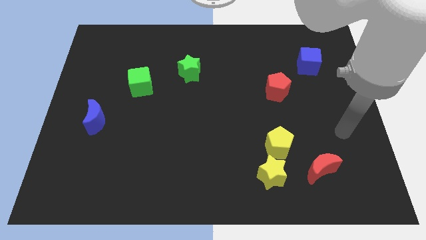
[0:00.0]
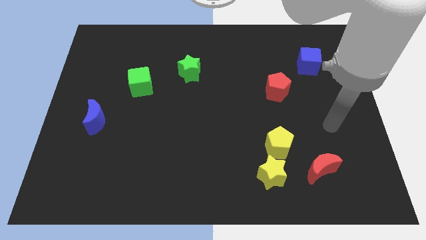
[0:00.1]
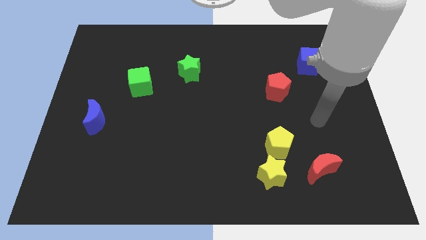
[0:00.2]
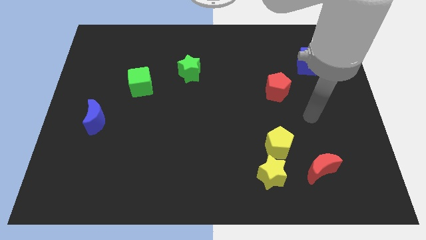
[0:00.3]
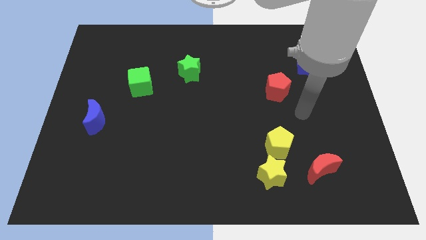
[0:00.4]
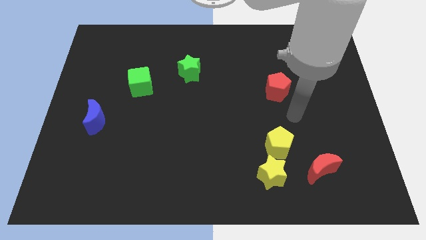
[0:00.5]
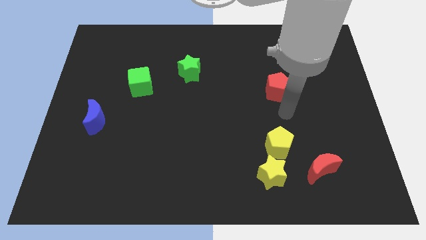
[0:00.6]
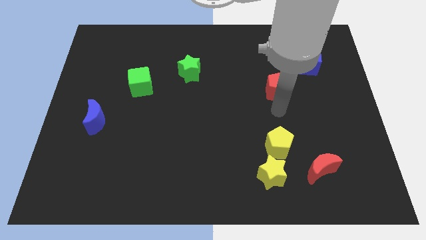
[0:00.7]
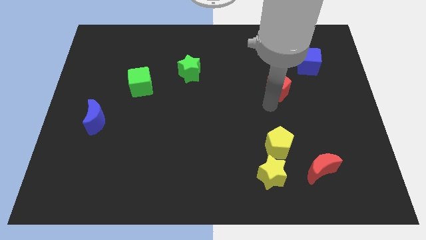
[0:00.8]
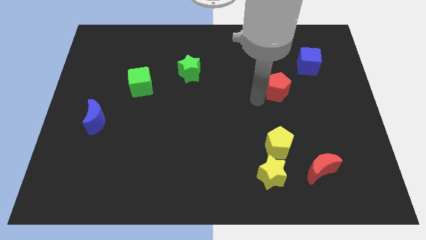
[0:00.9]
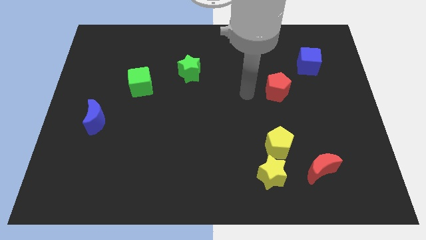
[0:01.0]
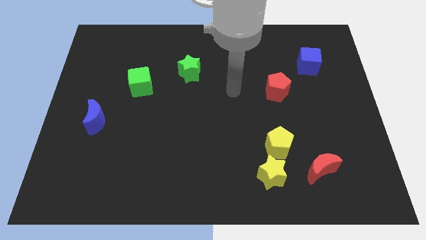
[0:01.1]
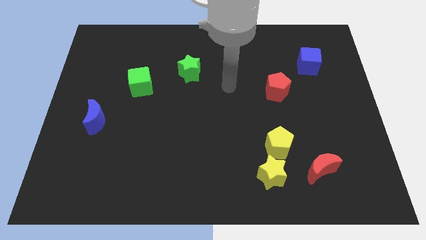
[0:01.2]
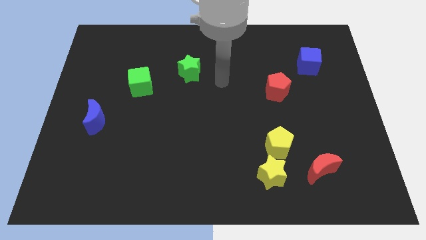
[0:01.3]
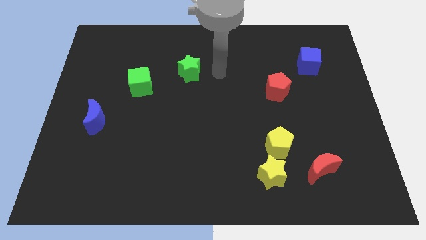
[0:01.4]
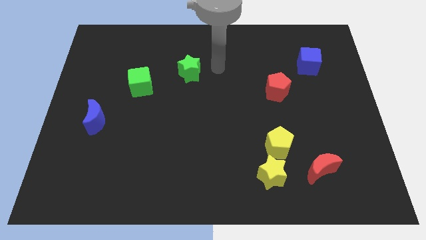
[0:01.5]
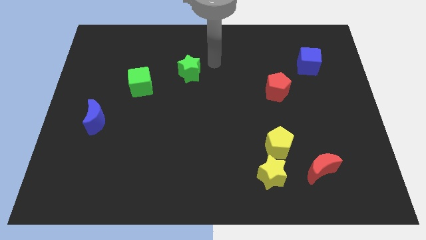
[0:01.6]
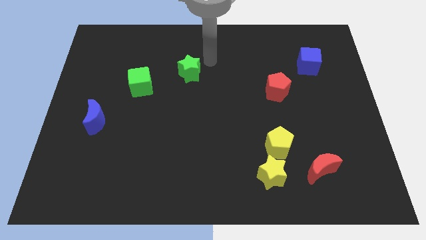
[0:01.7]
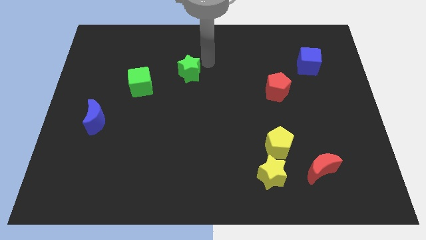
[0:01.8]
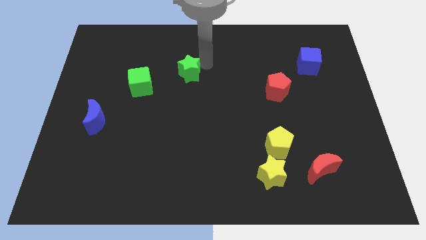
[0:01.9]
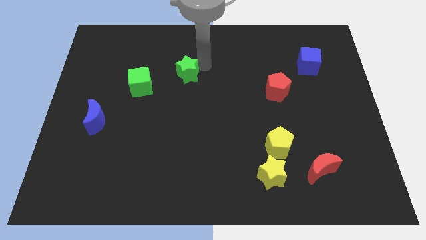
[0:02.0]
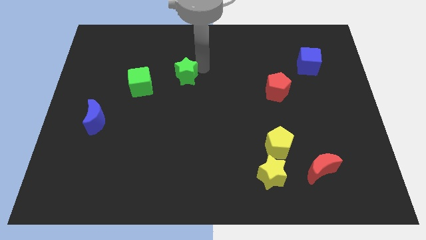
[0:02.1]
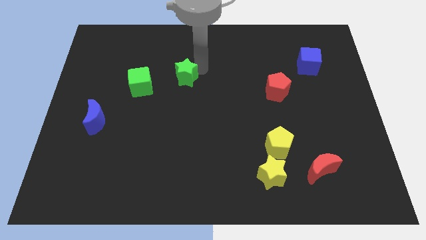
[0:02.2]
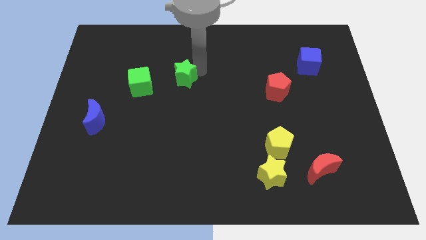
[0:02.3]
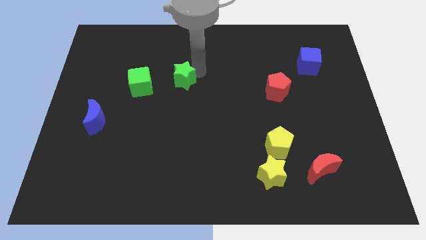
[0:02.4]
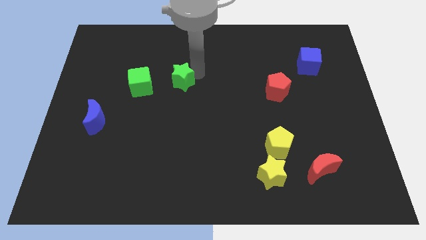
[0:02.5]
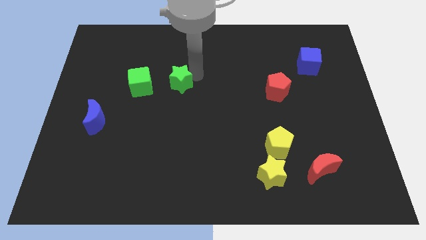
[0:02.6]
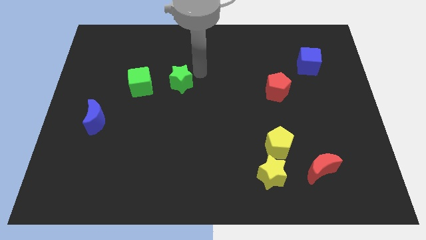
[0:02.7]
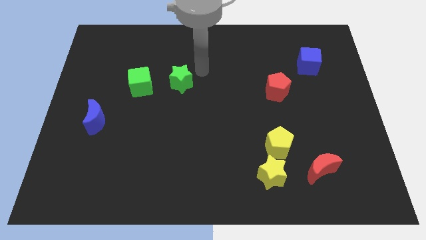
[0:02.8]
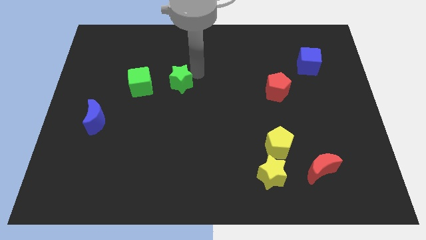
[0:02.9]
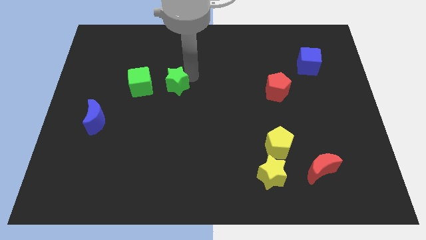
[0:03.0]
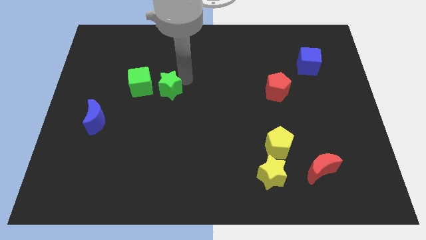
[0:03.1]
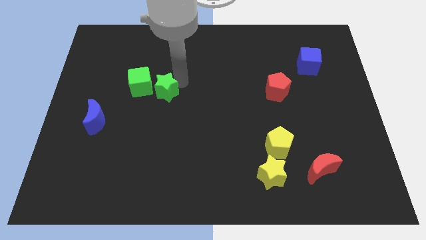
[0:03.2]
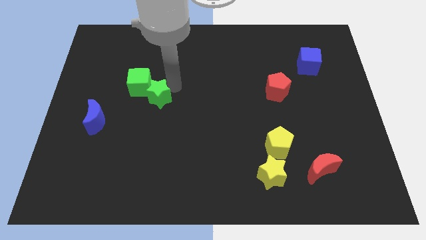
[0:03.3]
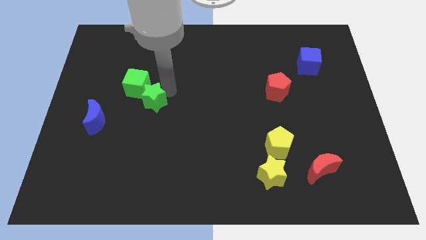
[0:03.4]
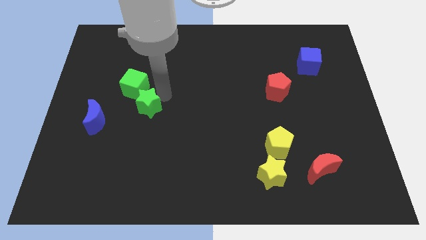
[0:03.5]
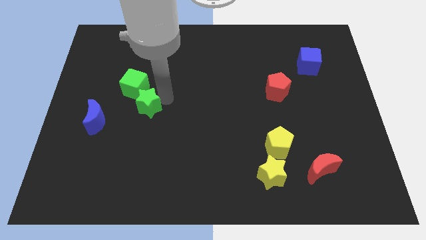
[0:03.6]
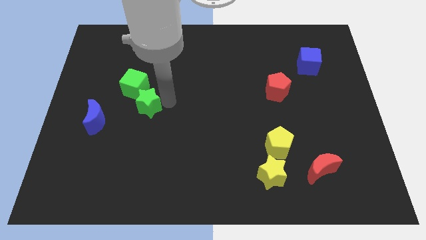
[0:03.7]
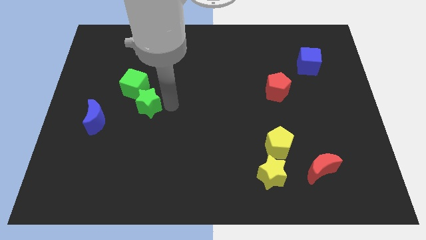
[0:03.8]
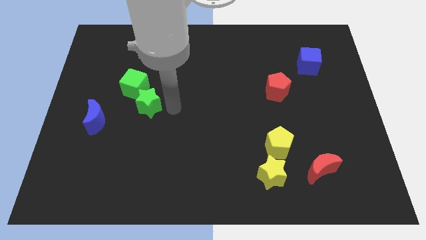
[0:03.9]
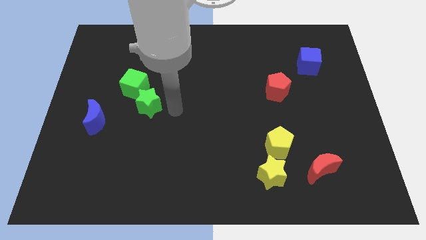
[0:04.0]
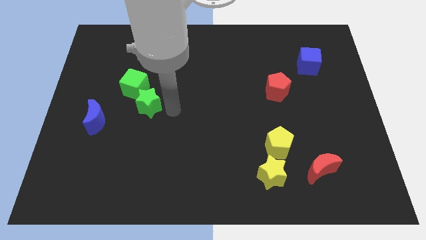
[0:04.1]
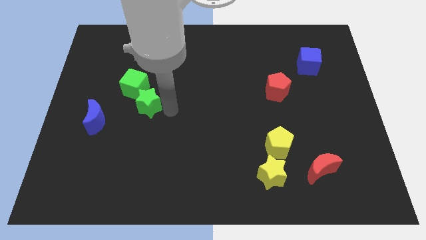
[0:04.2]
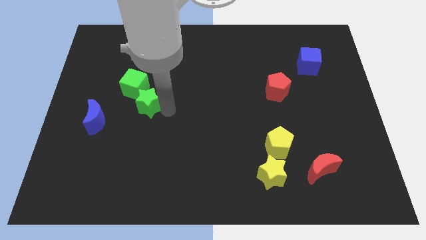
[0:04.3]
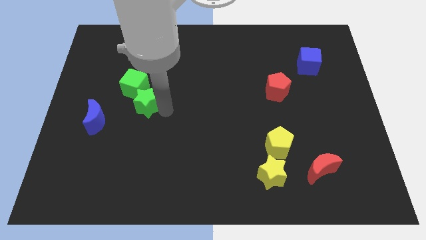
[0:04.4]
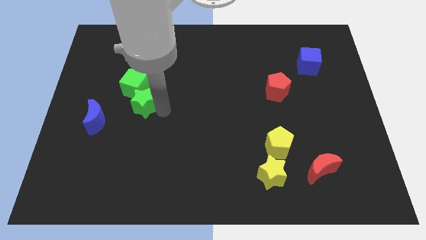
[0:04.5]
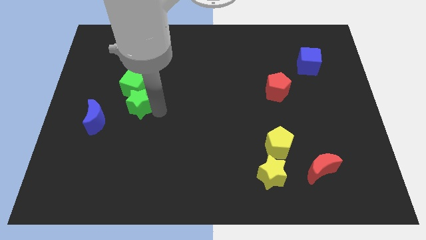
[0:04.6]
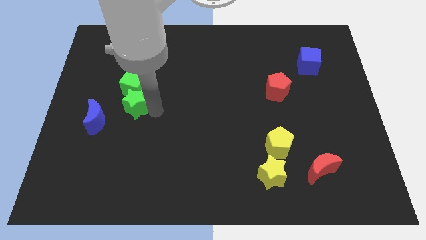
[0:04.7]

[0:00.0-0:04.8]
put the green star to the bottom left side of the green cube

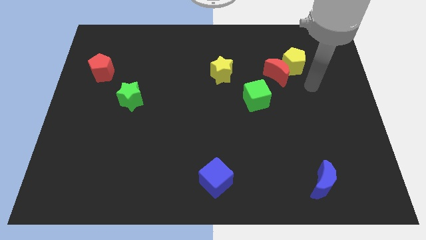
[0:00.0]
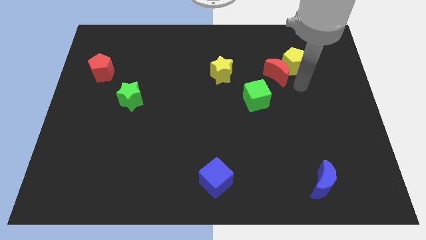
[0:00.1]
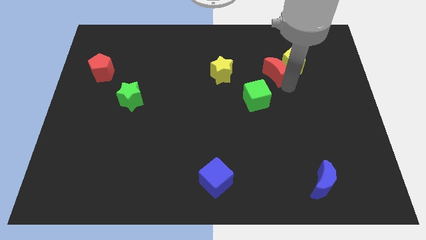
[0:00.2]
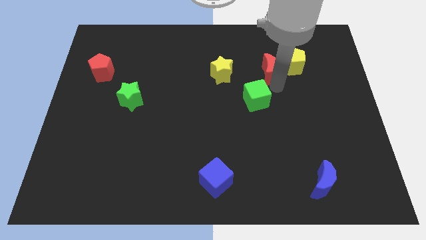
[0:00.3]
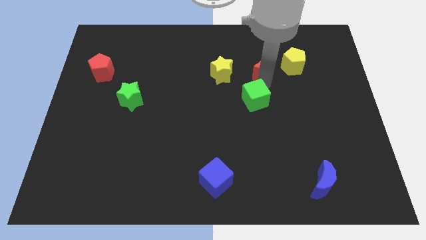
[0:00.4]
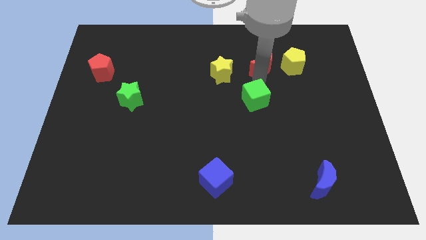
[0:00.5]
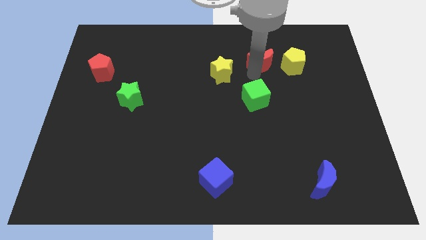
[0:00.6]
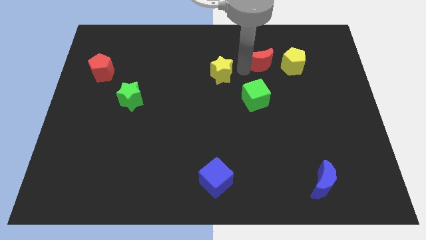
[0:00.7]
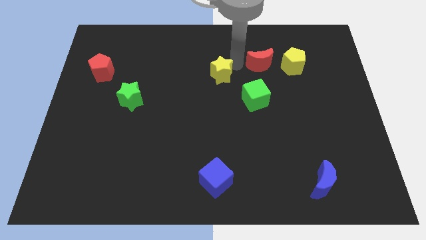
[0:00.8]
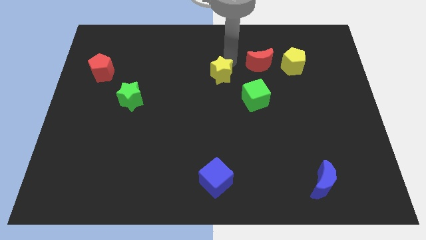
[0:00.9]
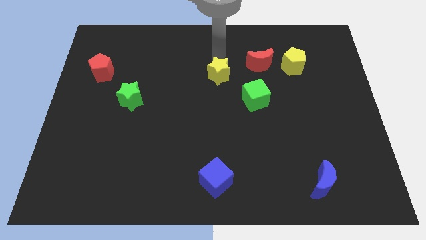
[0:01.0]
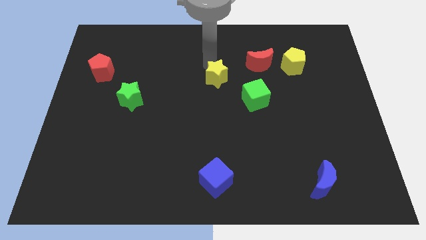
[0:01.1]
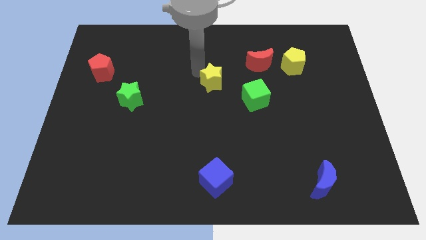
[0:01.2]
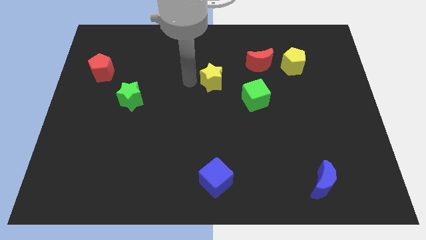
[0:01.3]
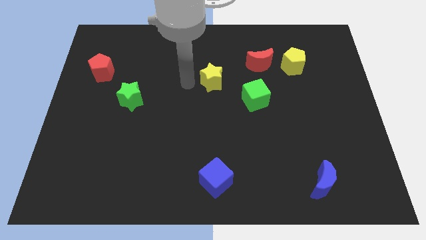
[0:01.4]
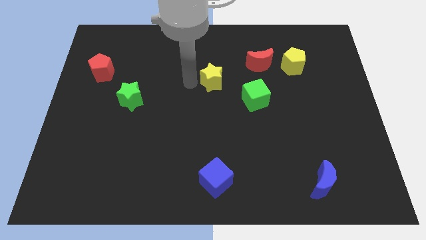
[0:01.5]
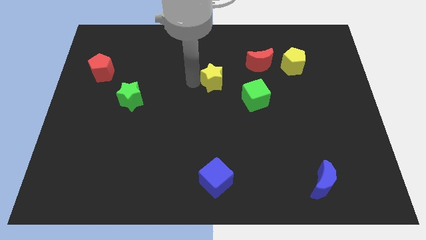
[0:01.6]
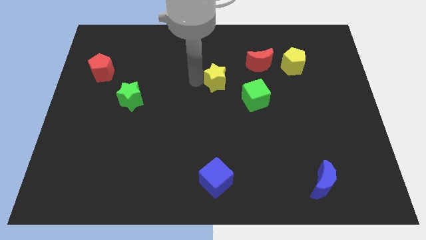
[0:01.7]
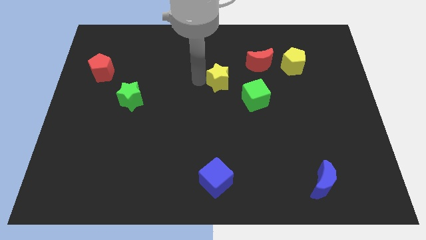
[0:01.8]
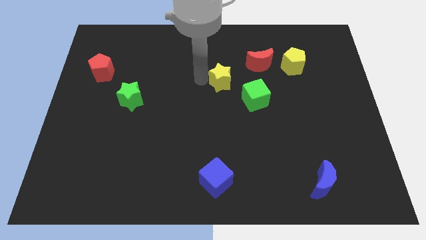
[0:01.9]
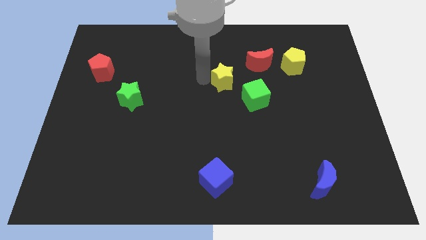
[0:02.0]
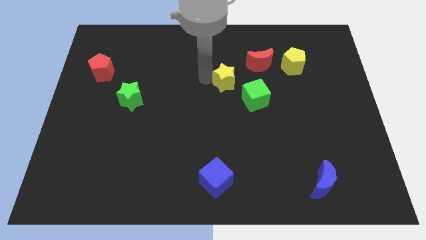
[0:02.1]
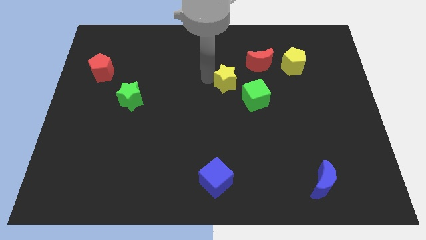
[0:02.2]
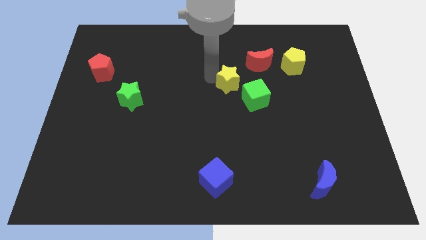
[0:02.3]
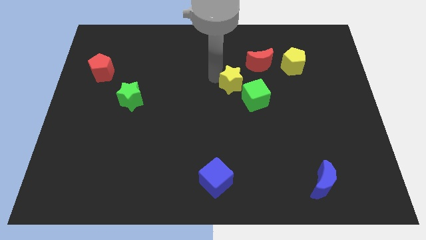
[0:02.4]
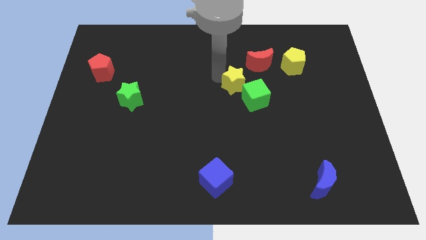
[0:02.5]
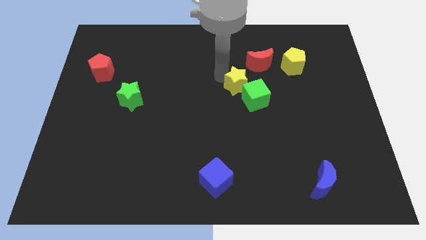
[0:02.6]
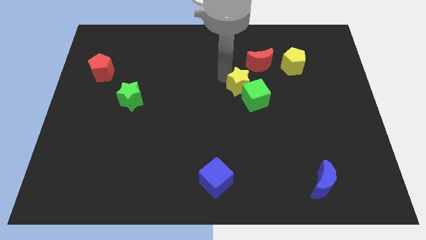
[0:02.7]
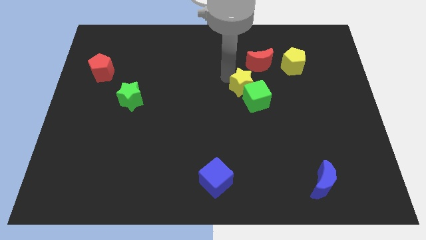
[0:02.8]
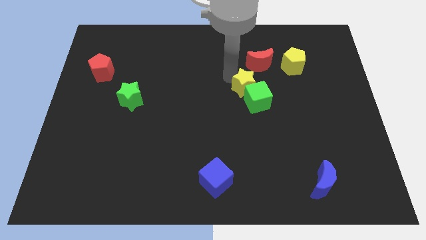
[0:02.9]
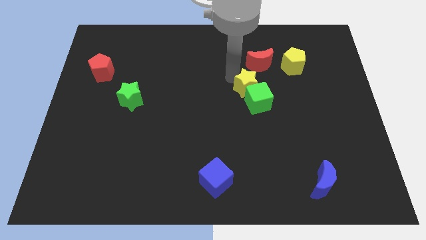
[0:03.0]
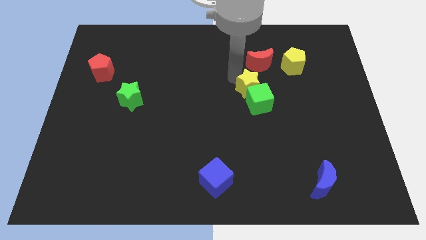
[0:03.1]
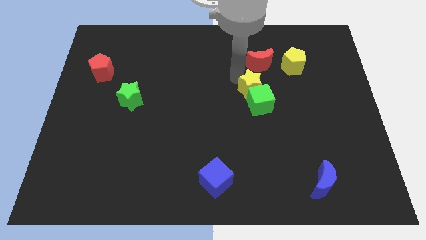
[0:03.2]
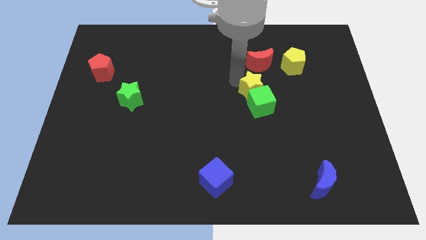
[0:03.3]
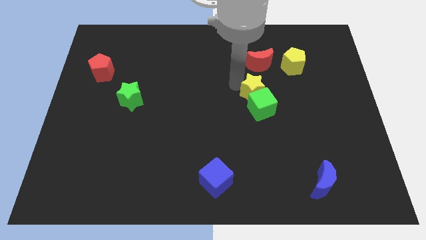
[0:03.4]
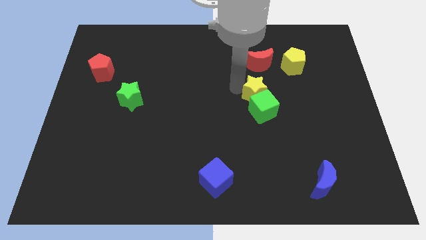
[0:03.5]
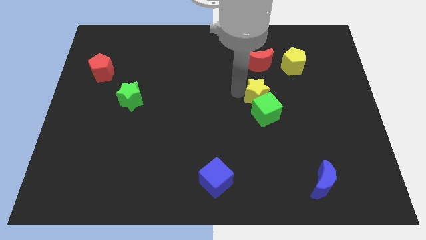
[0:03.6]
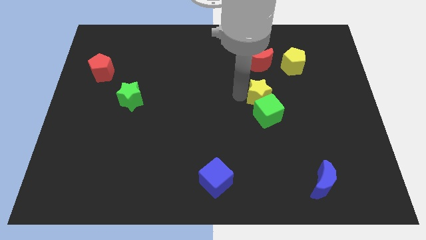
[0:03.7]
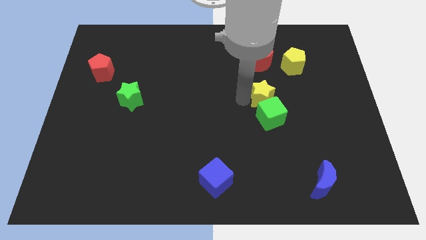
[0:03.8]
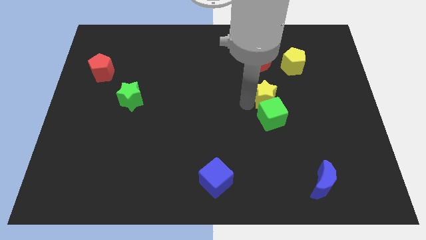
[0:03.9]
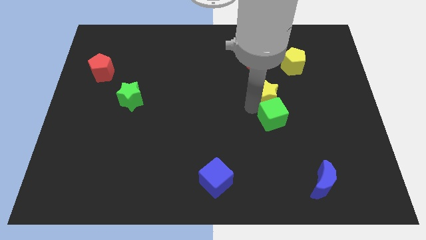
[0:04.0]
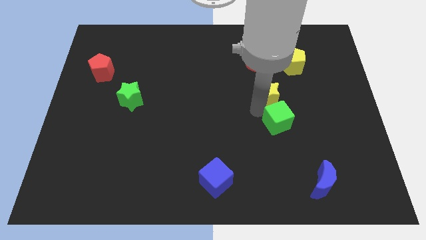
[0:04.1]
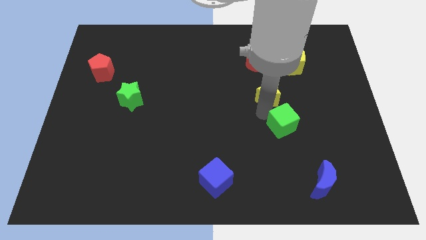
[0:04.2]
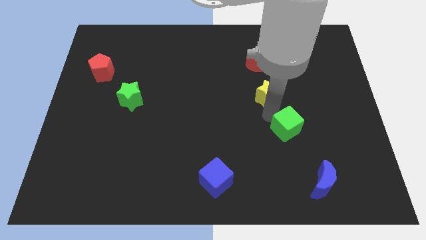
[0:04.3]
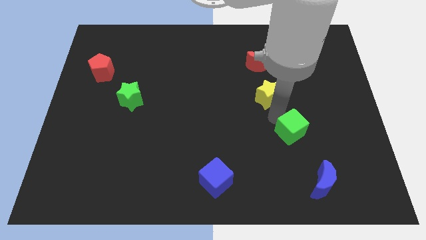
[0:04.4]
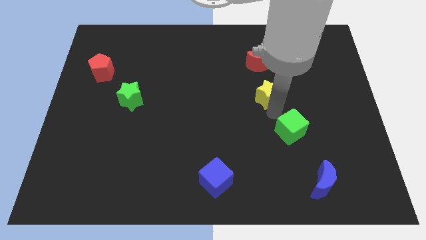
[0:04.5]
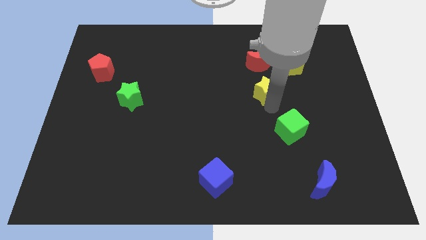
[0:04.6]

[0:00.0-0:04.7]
push the yellow star to the bottom left of the yellow pentagon
